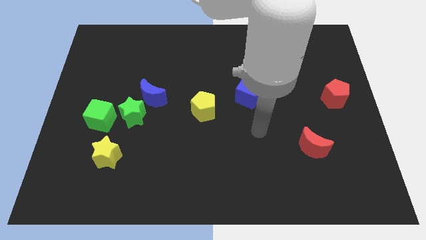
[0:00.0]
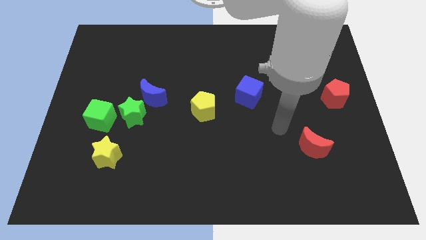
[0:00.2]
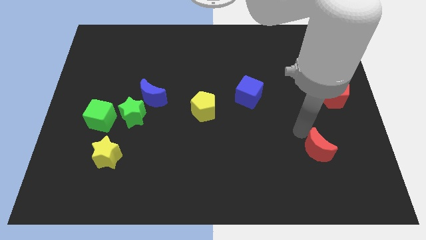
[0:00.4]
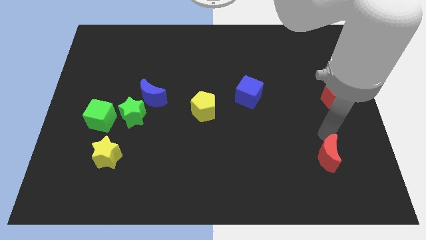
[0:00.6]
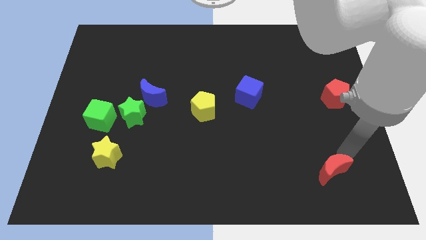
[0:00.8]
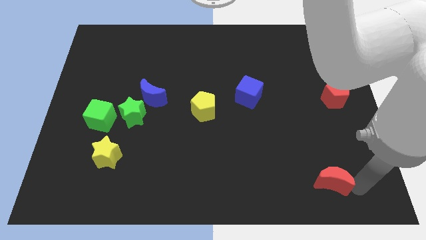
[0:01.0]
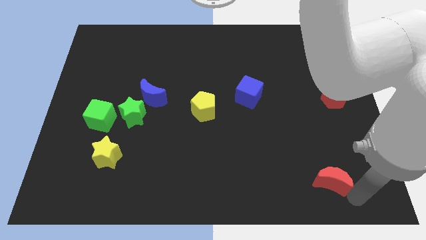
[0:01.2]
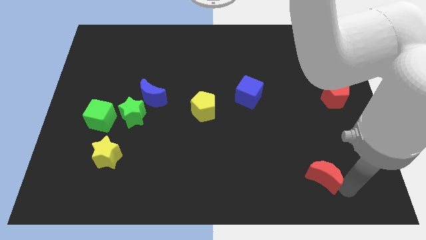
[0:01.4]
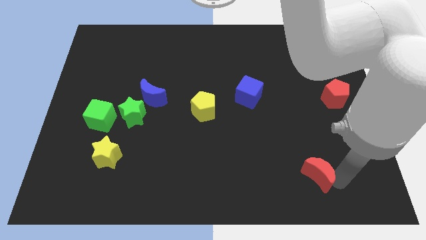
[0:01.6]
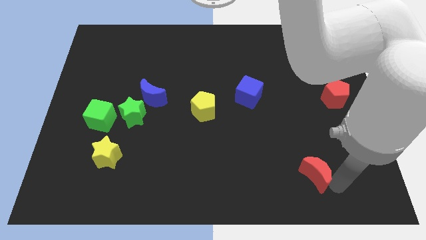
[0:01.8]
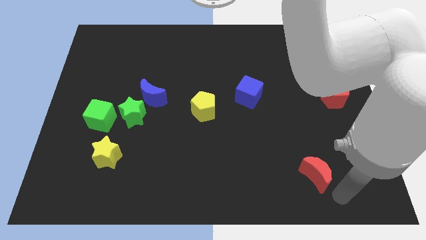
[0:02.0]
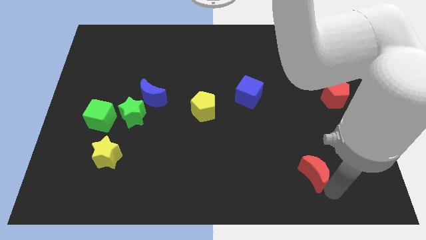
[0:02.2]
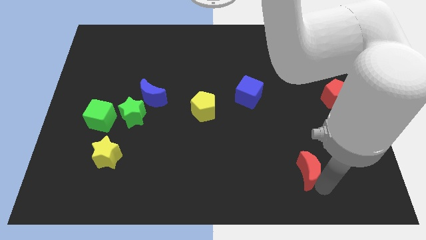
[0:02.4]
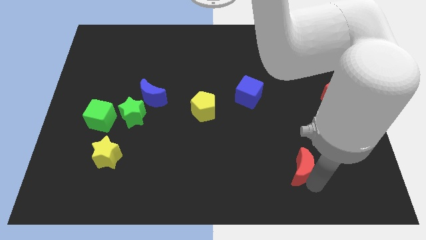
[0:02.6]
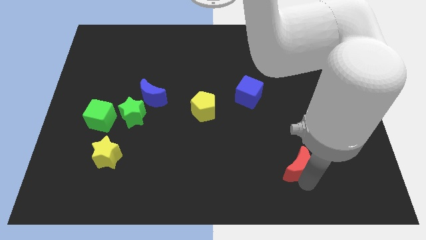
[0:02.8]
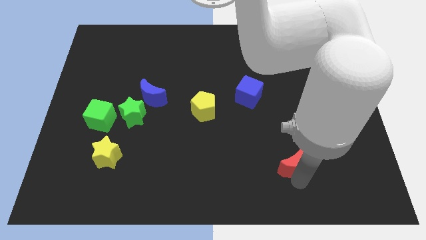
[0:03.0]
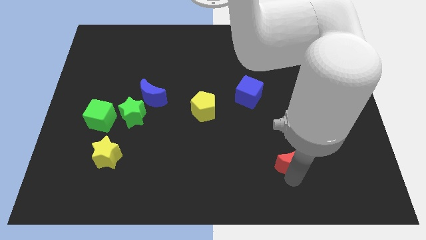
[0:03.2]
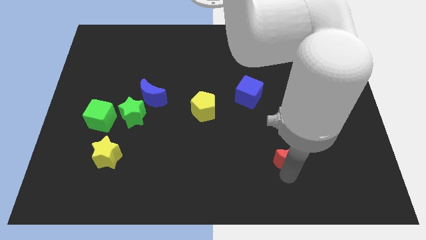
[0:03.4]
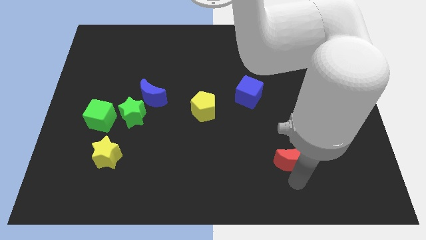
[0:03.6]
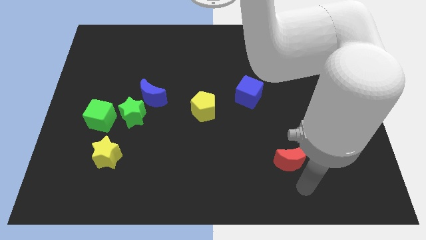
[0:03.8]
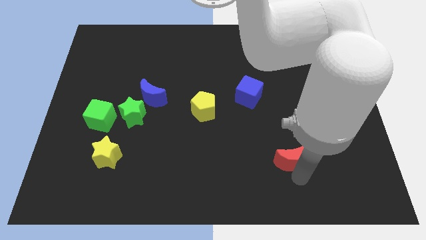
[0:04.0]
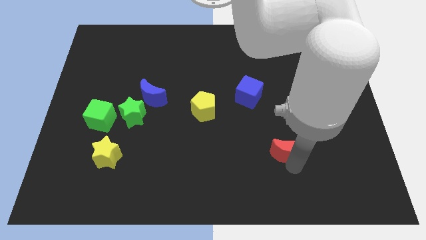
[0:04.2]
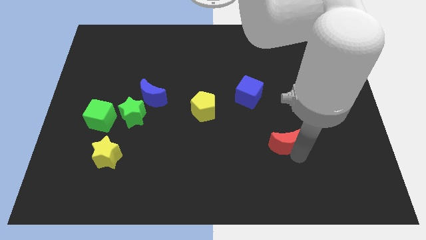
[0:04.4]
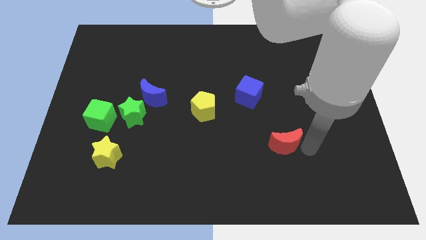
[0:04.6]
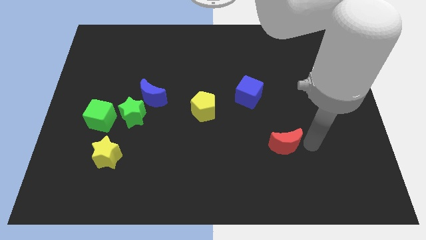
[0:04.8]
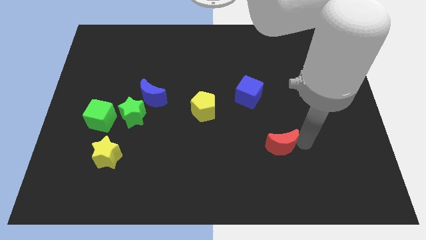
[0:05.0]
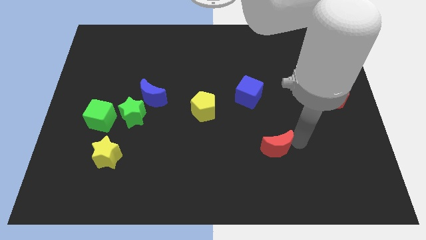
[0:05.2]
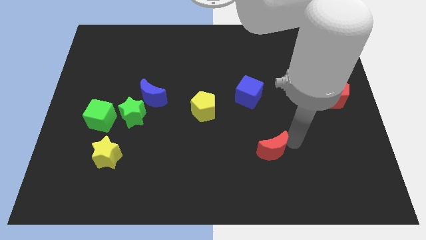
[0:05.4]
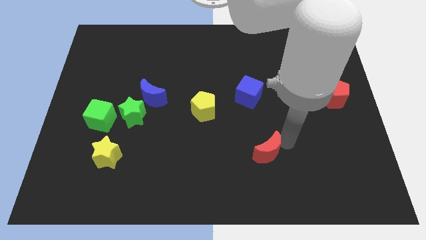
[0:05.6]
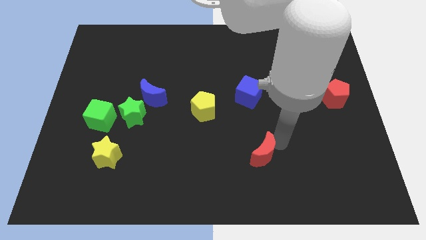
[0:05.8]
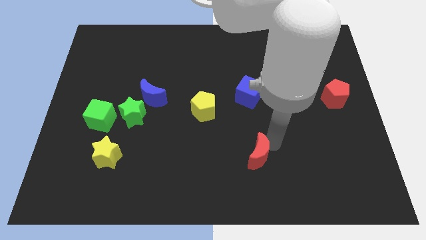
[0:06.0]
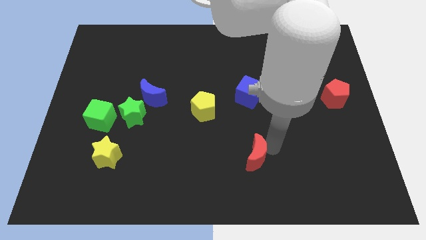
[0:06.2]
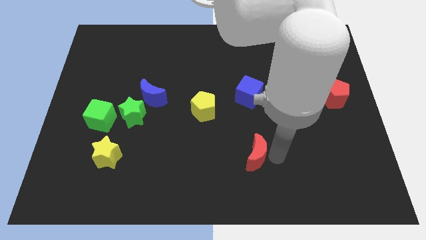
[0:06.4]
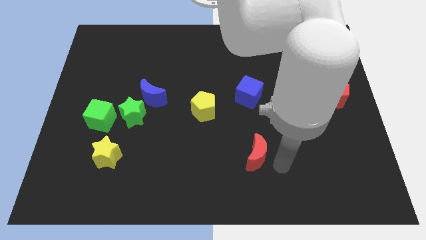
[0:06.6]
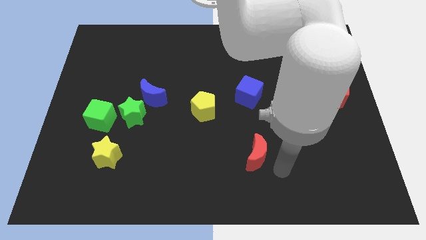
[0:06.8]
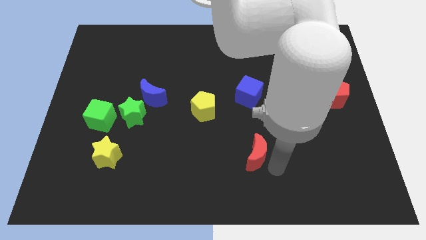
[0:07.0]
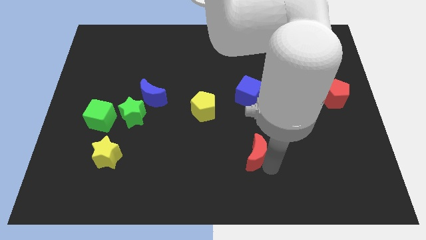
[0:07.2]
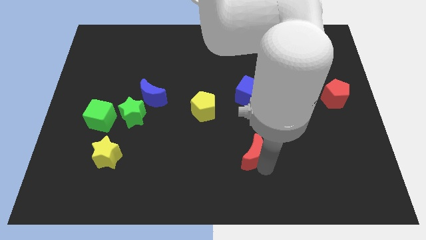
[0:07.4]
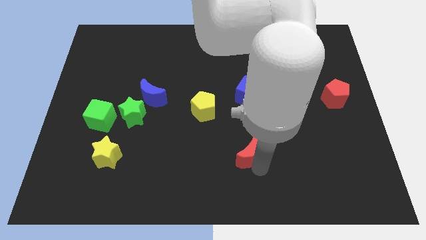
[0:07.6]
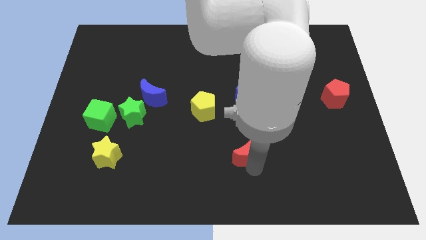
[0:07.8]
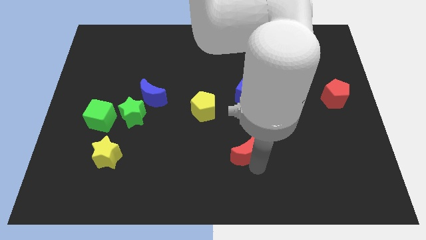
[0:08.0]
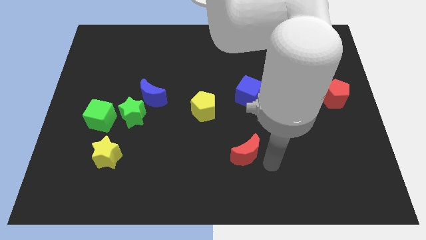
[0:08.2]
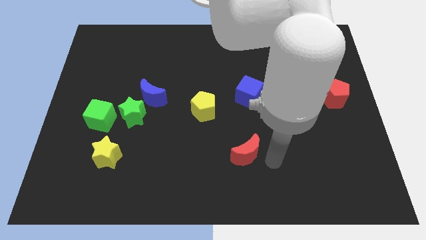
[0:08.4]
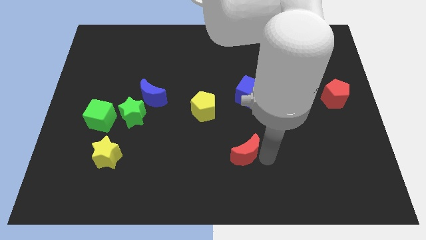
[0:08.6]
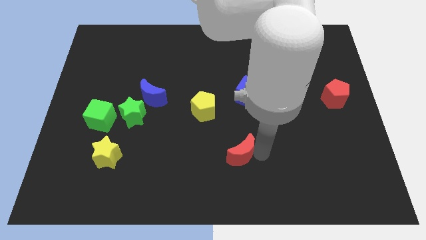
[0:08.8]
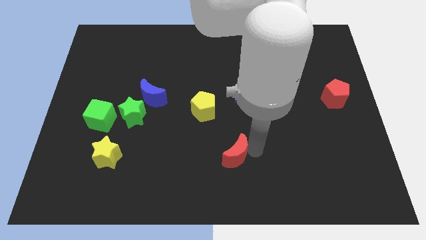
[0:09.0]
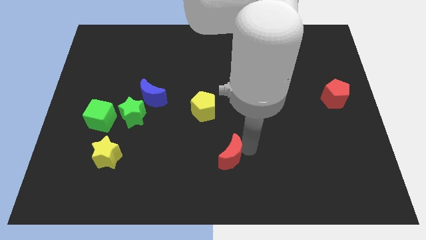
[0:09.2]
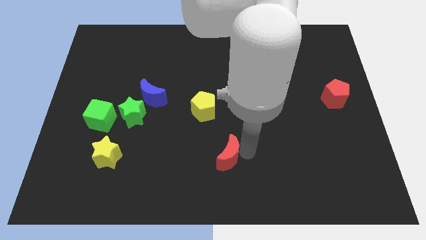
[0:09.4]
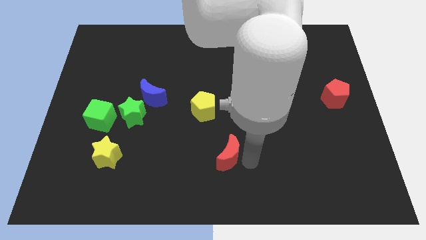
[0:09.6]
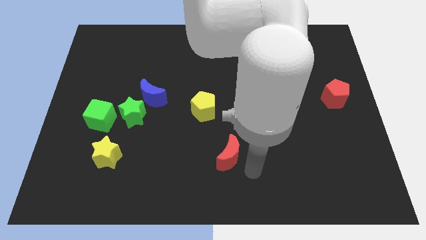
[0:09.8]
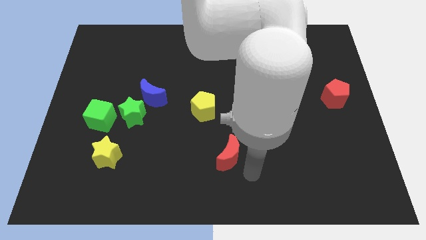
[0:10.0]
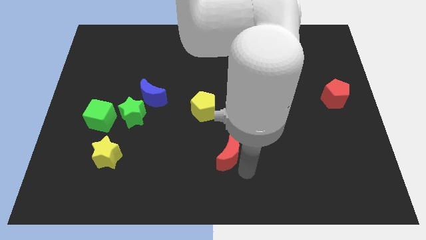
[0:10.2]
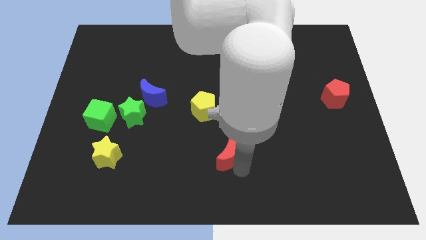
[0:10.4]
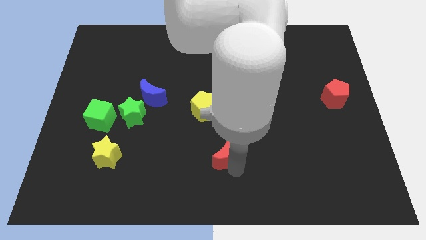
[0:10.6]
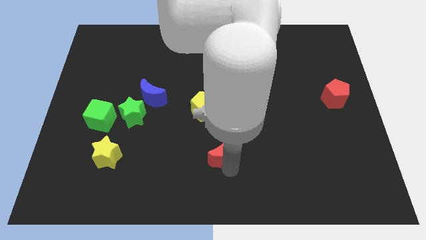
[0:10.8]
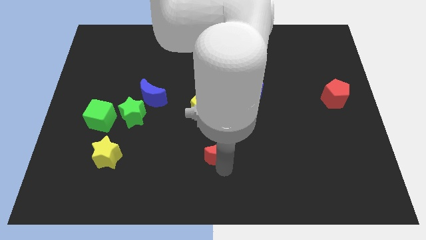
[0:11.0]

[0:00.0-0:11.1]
move the red moon left

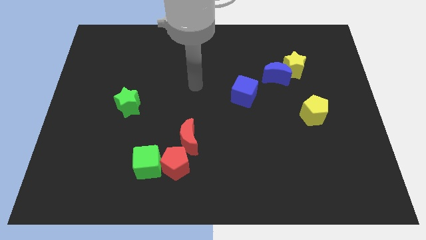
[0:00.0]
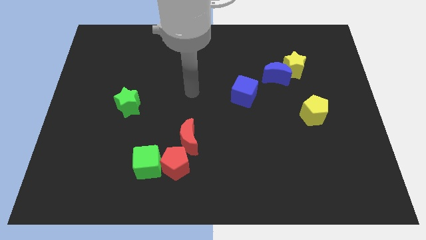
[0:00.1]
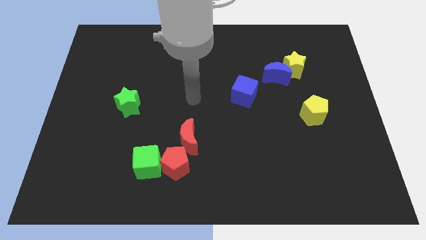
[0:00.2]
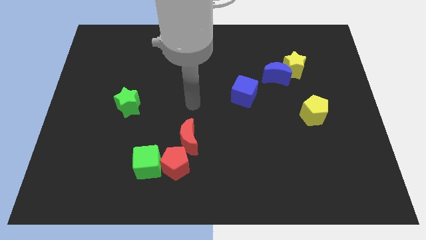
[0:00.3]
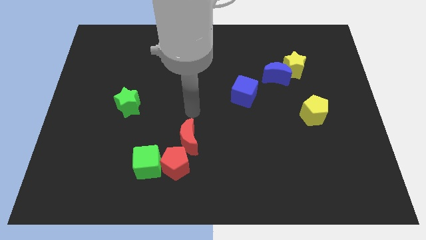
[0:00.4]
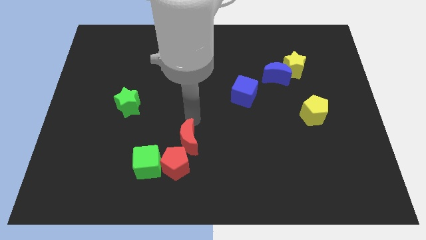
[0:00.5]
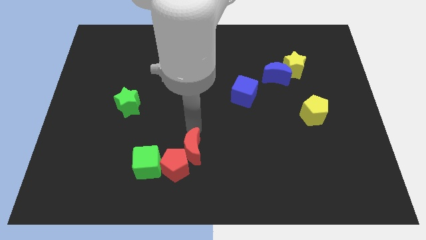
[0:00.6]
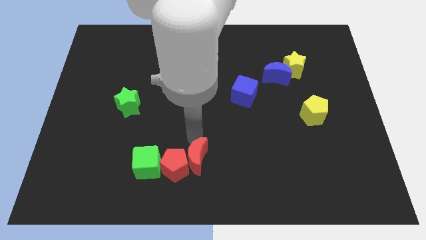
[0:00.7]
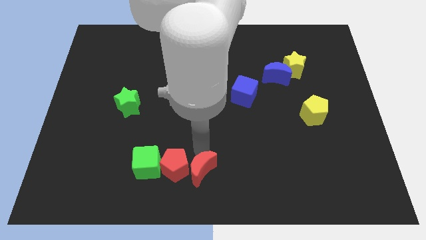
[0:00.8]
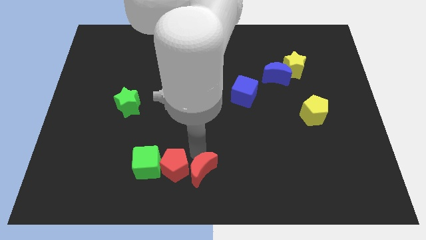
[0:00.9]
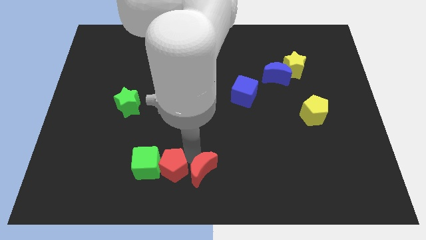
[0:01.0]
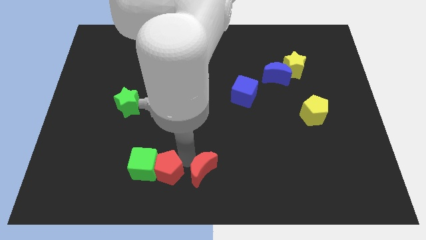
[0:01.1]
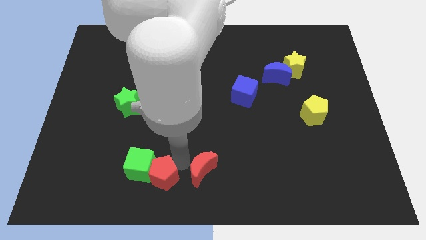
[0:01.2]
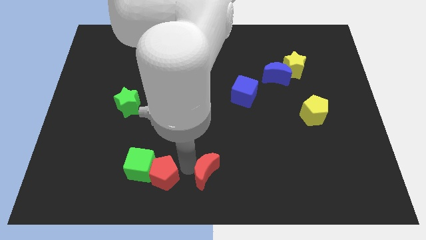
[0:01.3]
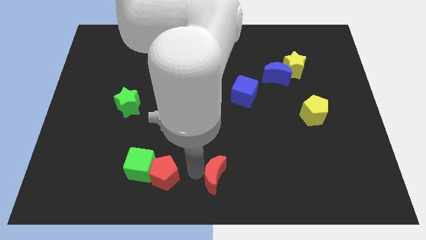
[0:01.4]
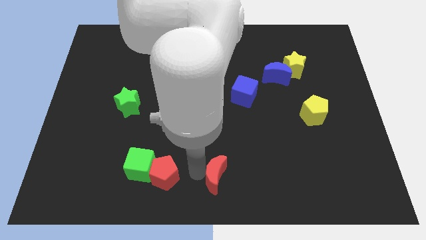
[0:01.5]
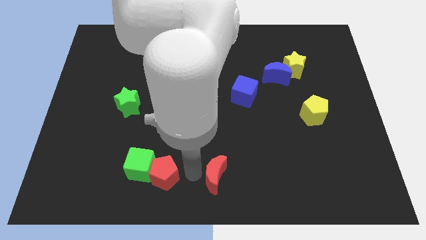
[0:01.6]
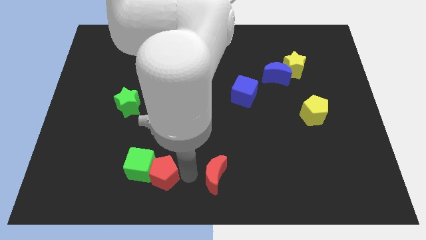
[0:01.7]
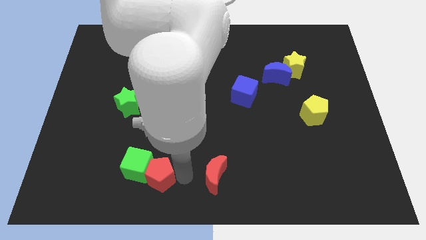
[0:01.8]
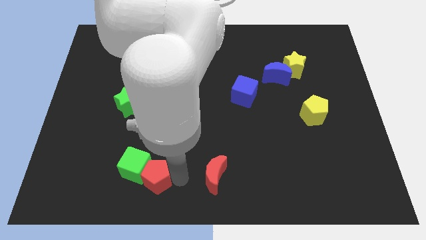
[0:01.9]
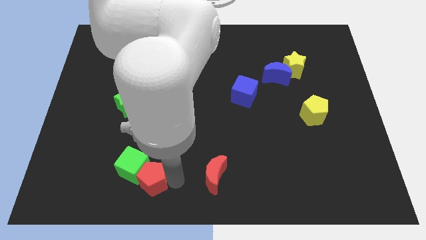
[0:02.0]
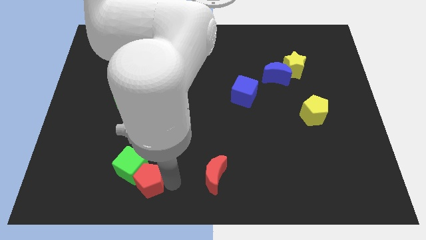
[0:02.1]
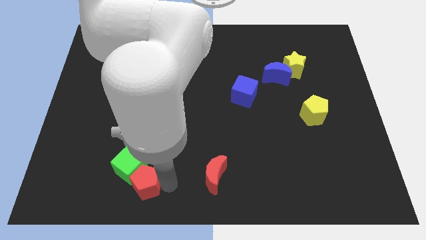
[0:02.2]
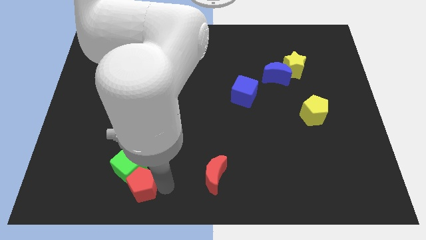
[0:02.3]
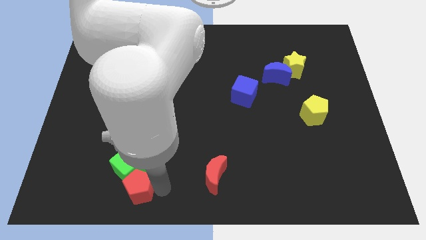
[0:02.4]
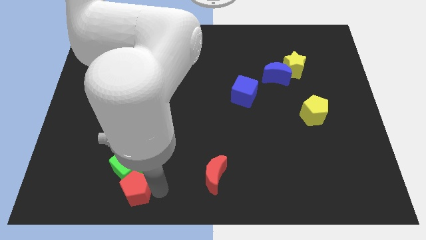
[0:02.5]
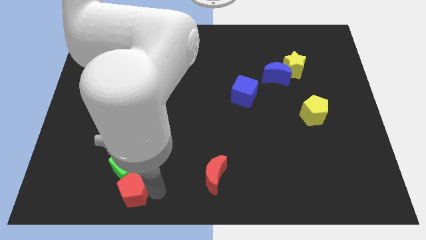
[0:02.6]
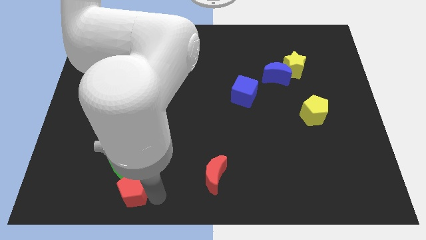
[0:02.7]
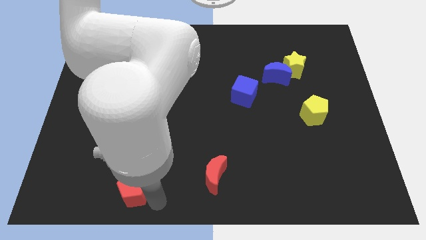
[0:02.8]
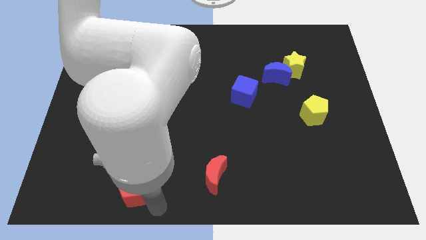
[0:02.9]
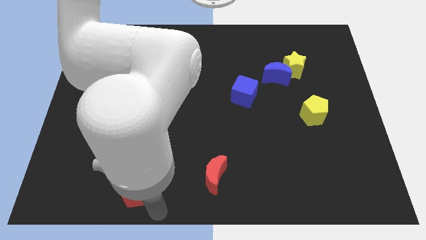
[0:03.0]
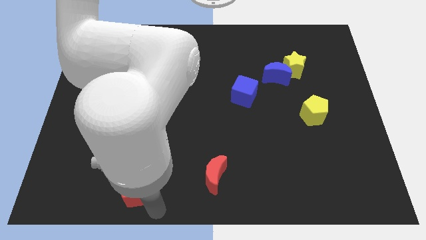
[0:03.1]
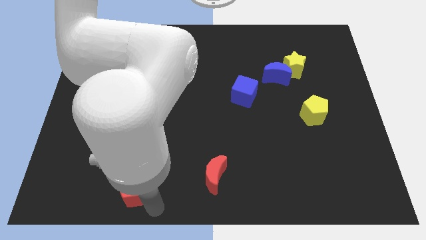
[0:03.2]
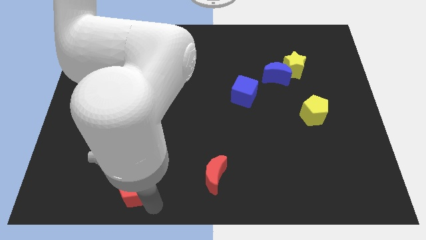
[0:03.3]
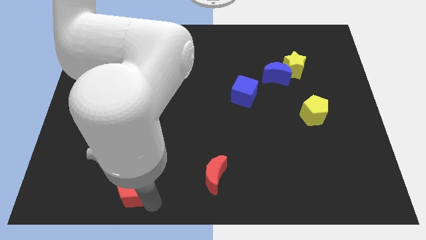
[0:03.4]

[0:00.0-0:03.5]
move the red pentagon left somewhat
